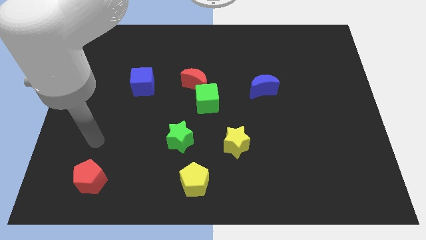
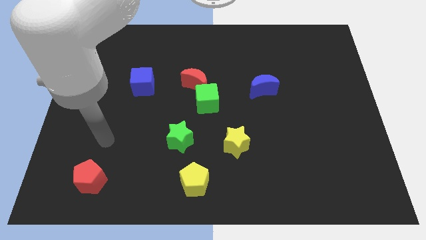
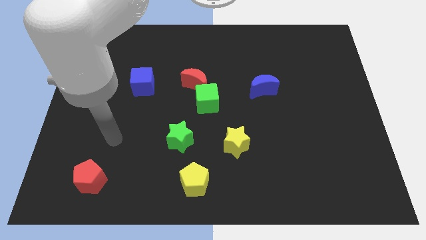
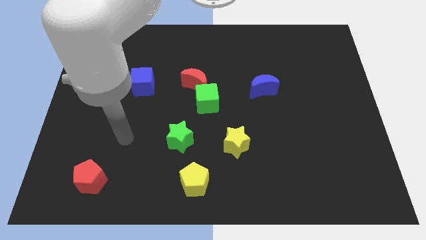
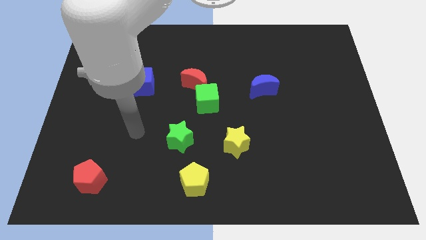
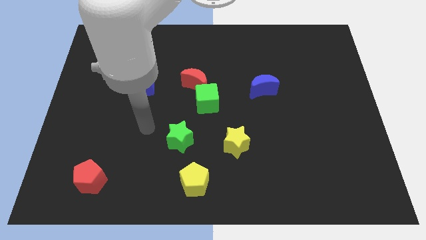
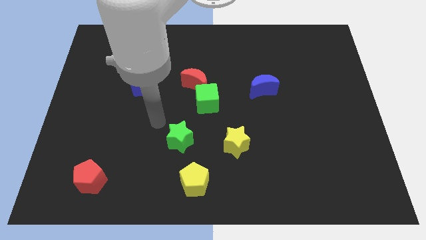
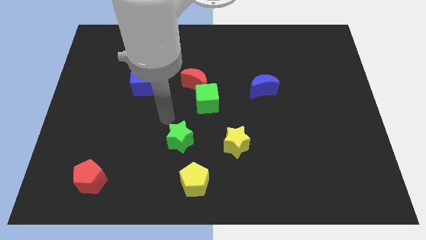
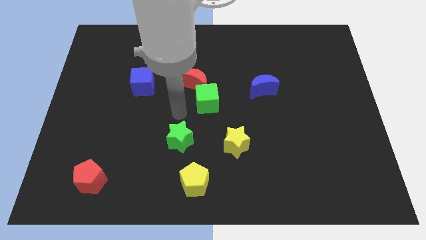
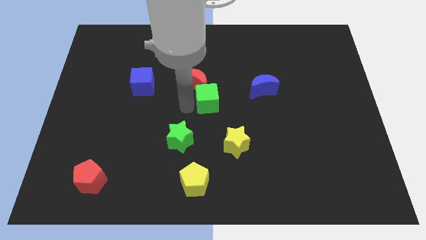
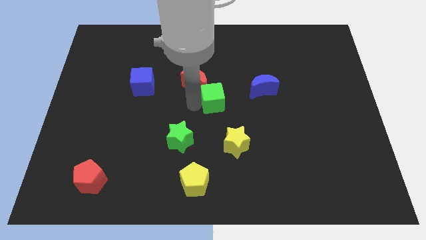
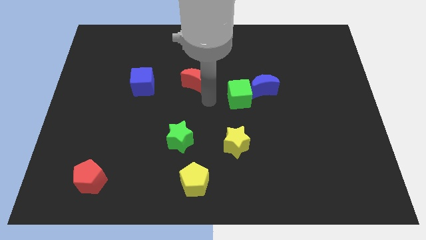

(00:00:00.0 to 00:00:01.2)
move the red moon away from the green cube

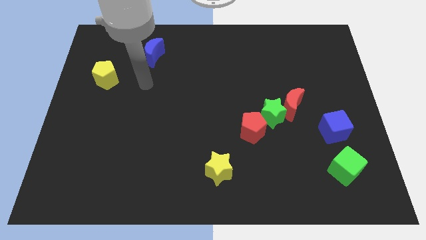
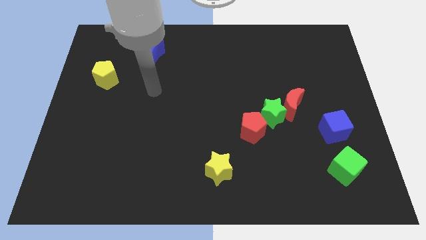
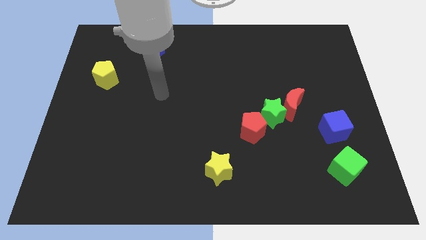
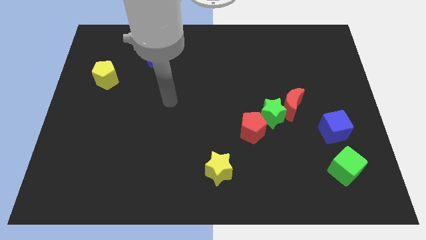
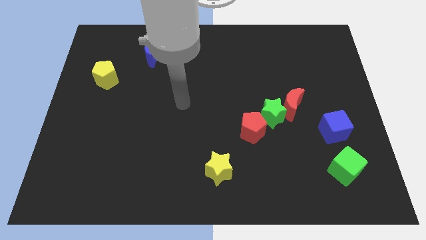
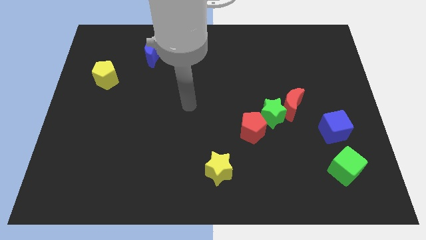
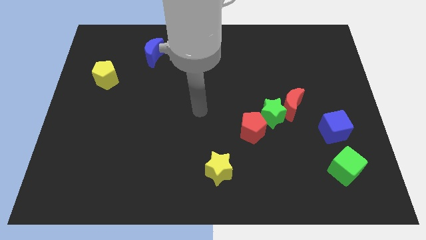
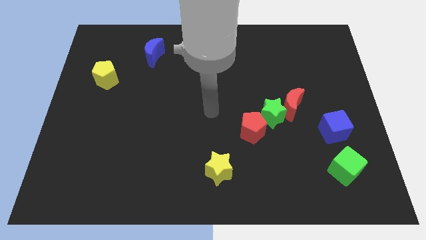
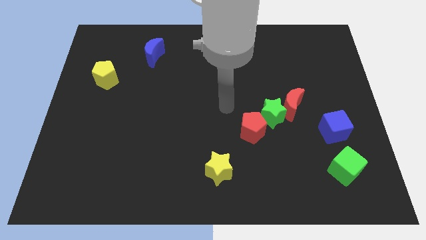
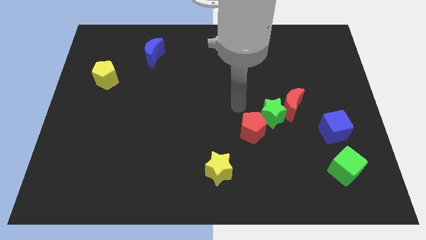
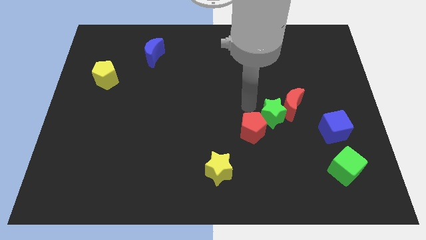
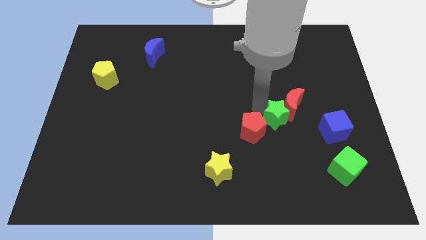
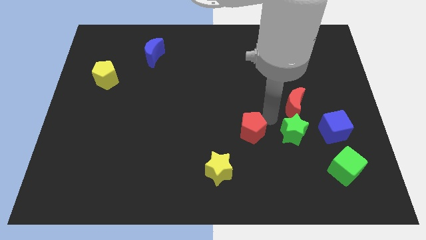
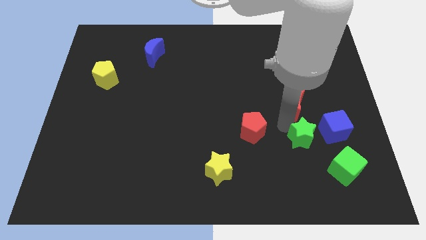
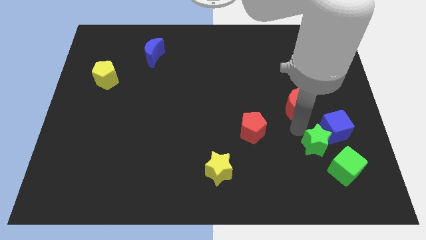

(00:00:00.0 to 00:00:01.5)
move the red moon away from the green star

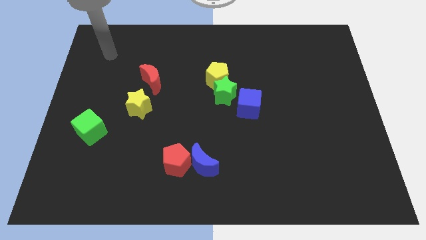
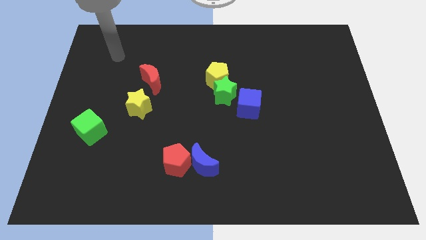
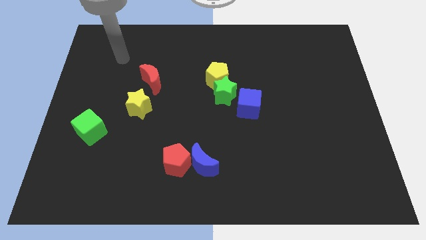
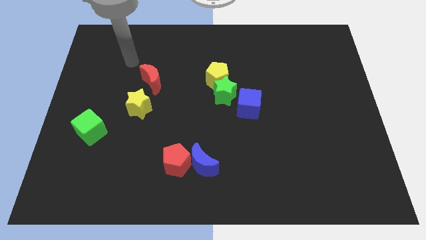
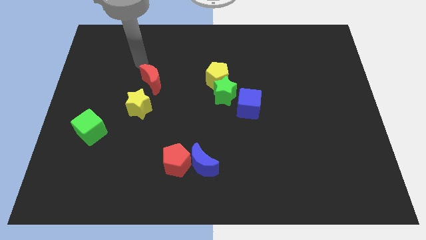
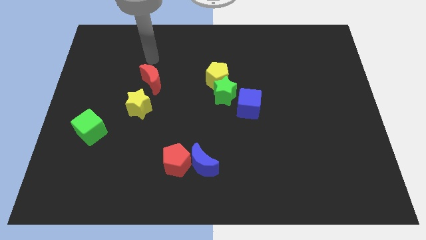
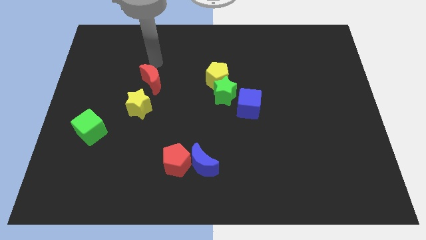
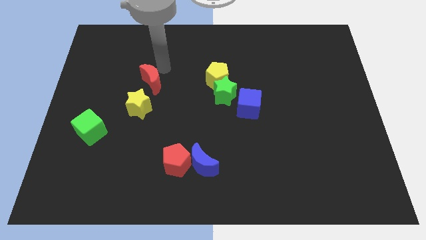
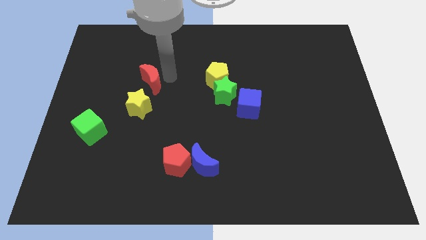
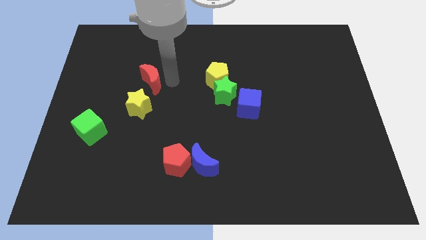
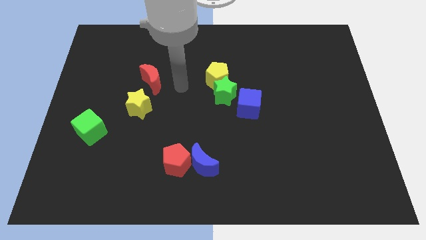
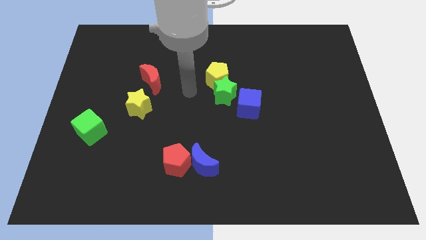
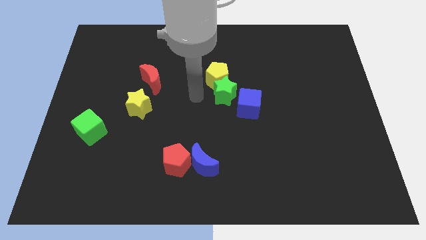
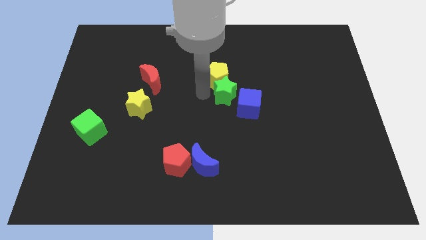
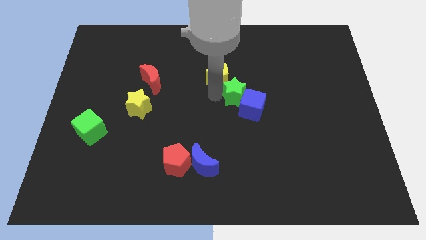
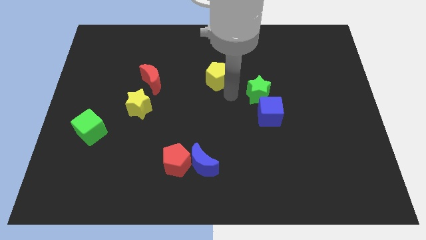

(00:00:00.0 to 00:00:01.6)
pull the yellow pentagon apart from the green star

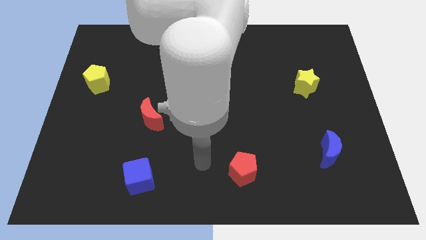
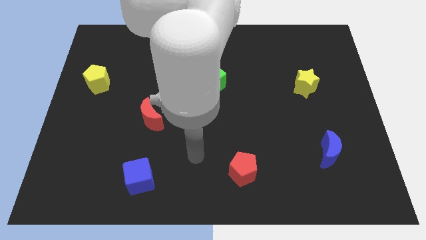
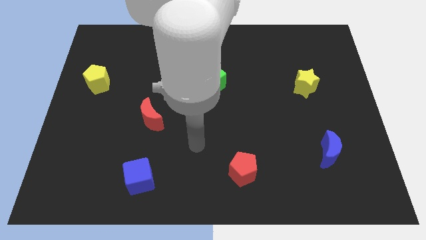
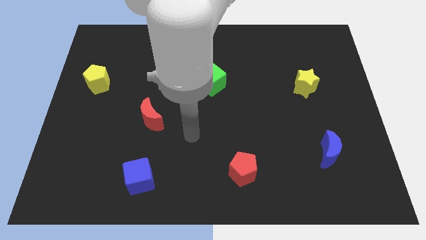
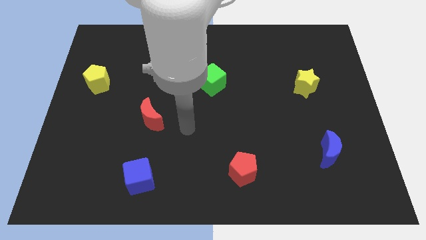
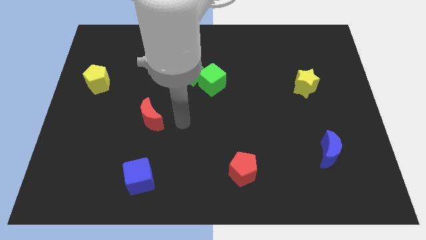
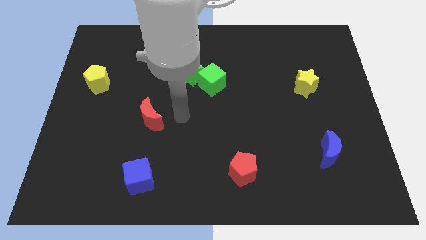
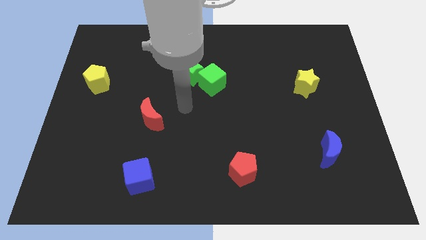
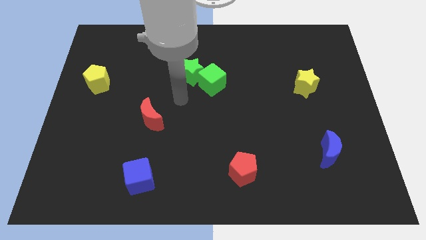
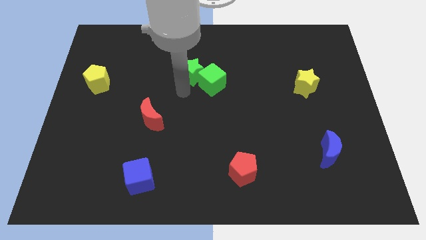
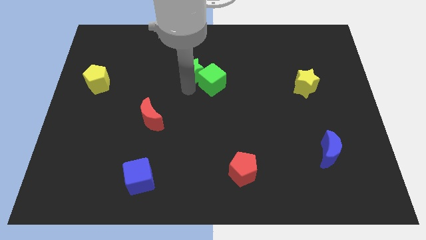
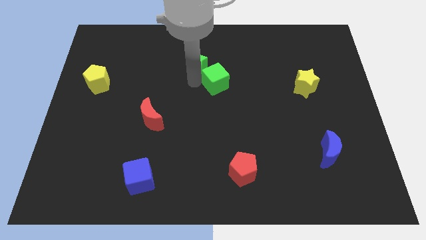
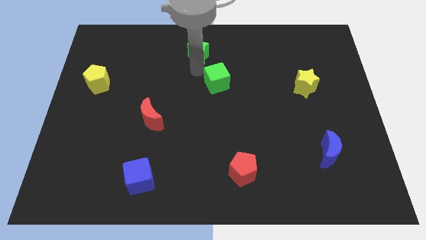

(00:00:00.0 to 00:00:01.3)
pull the green cube apart from the green star

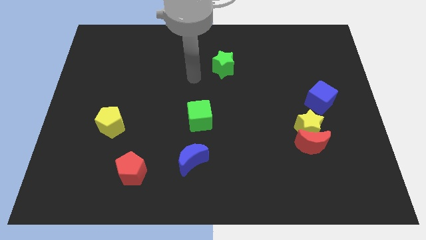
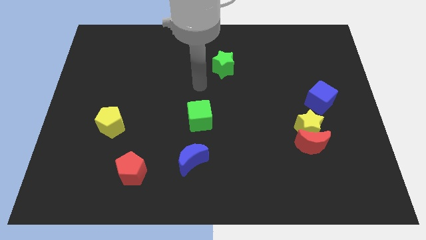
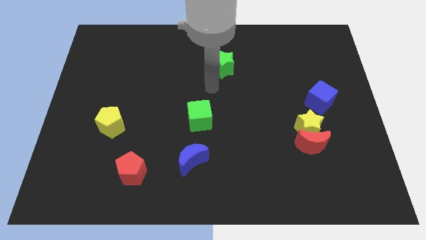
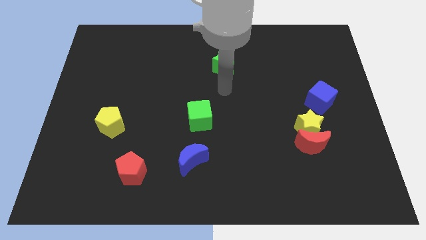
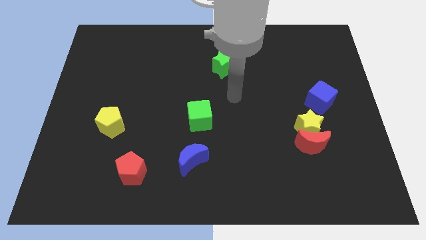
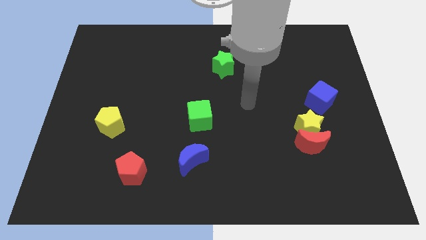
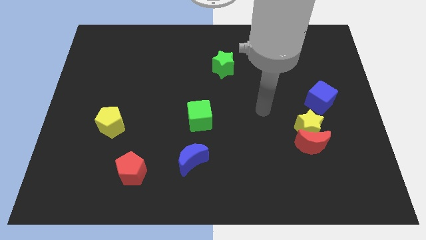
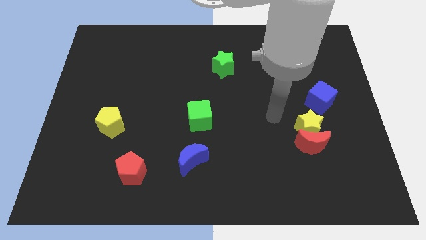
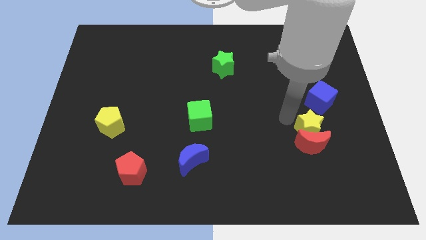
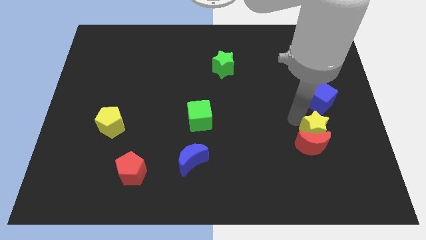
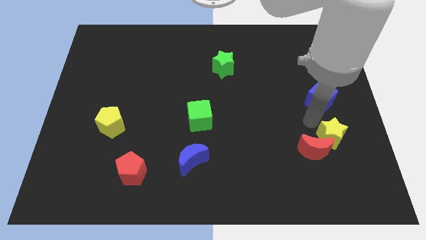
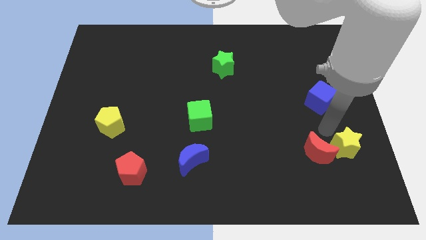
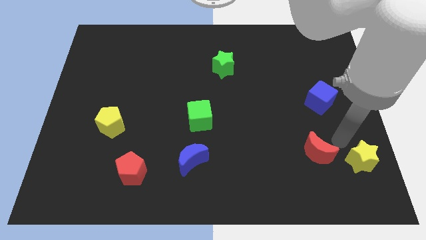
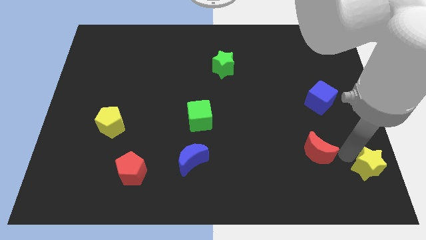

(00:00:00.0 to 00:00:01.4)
separate the red moon from the yellow star

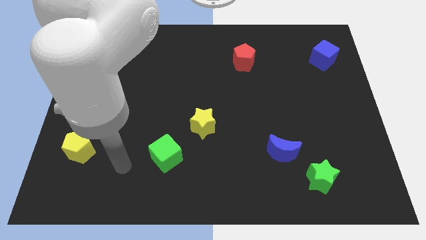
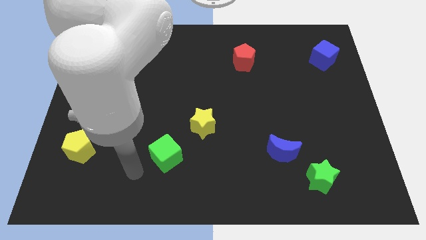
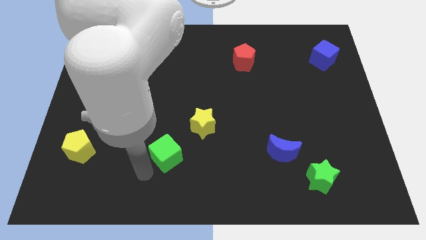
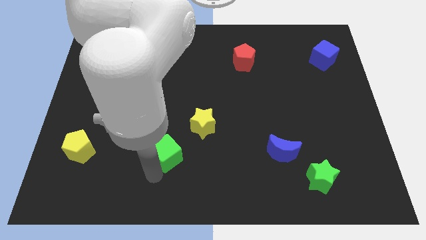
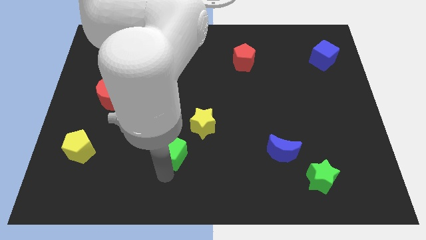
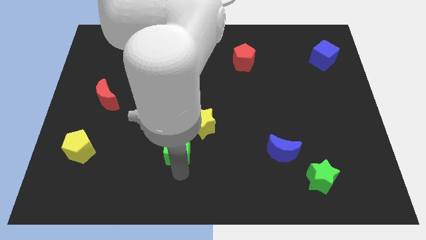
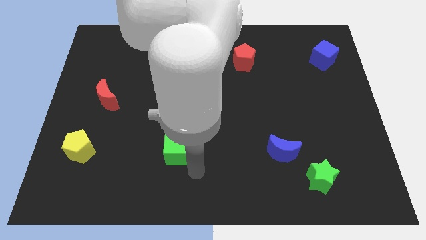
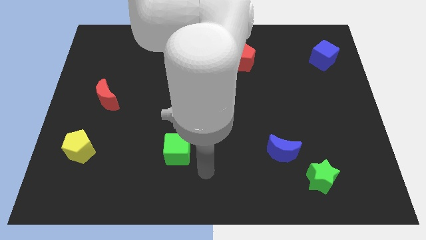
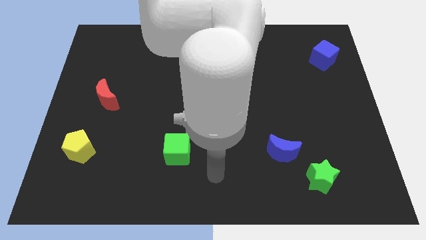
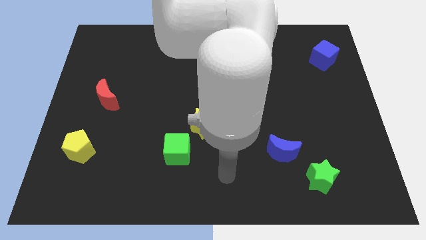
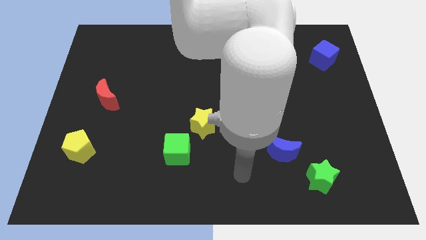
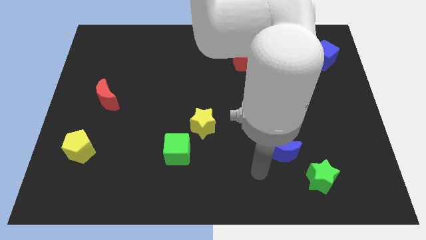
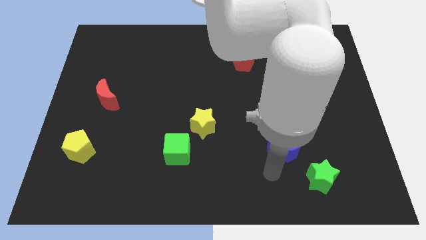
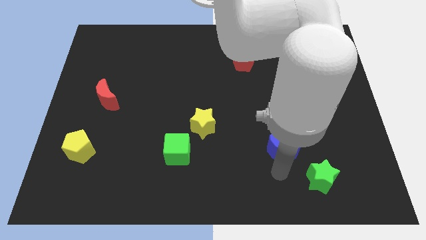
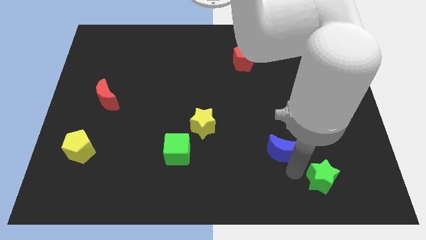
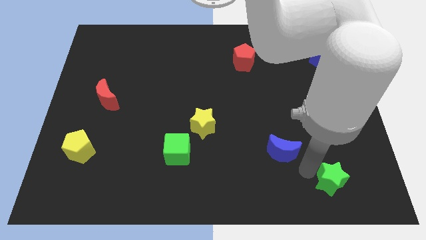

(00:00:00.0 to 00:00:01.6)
separate the blue moon from the green star

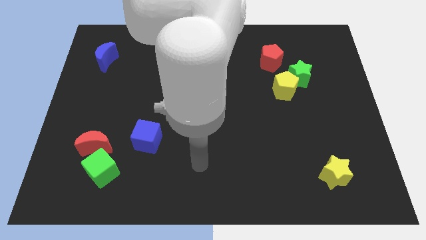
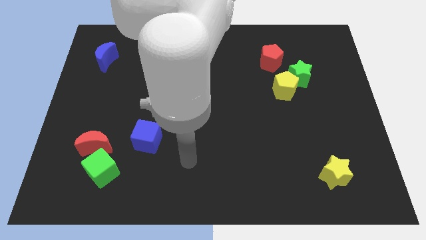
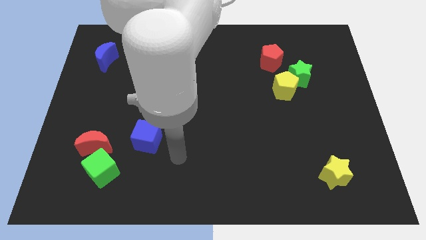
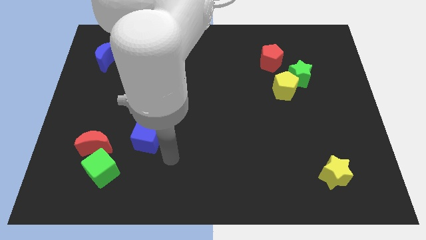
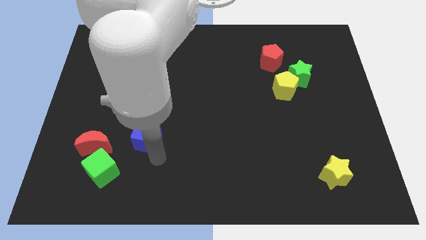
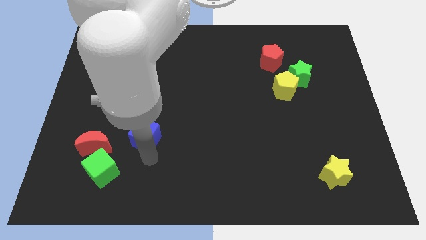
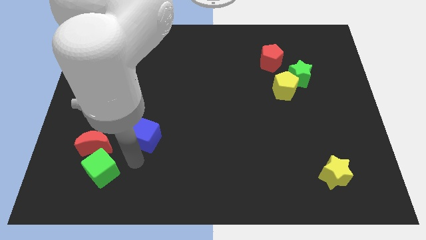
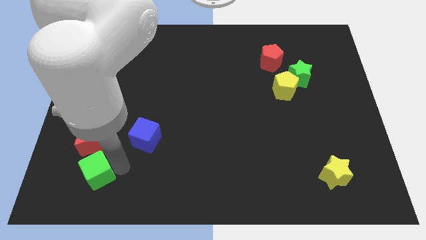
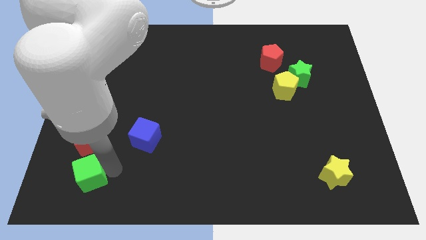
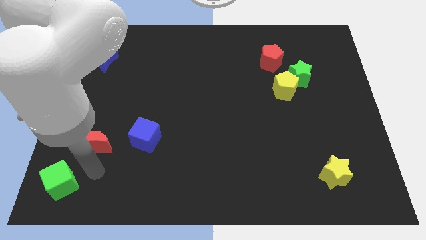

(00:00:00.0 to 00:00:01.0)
pull the red moon apart from the green cube
